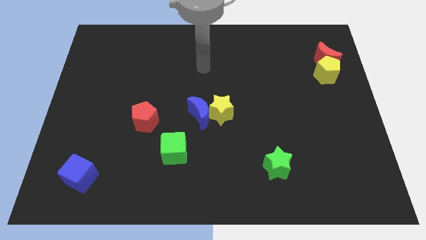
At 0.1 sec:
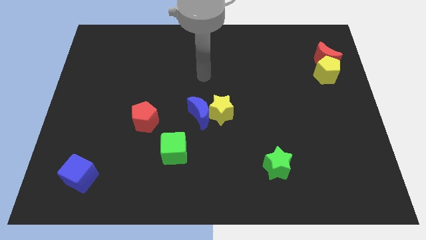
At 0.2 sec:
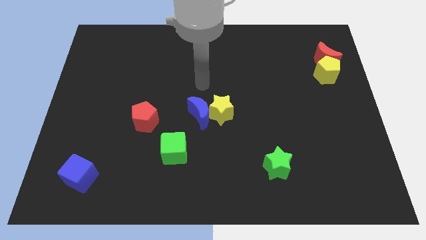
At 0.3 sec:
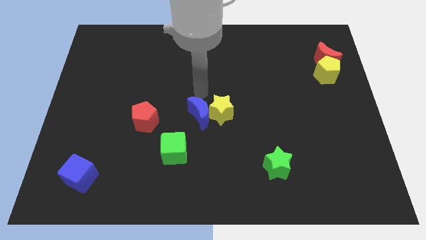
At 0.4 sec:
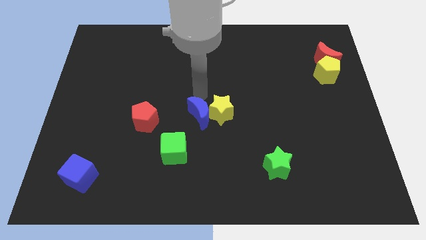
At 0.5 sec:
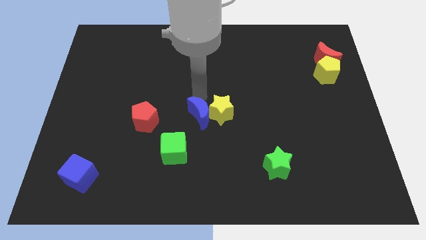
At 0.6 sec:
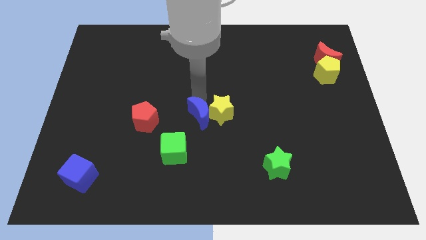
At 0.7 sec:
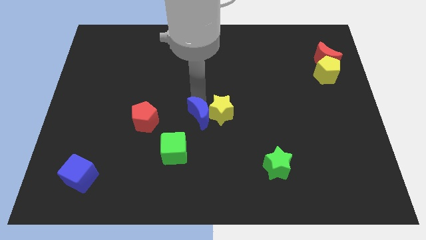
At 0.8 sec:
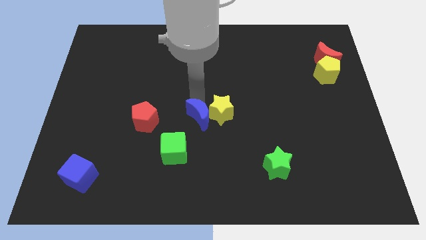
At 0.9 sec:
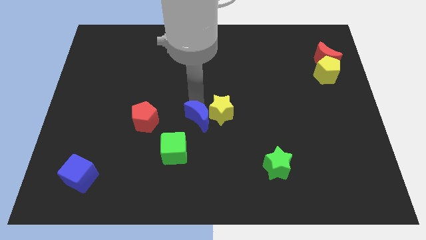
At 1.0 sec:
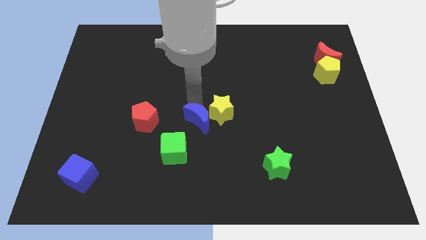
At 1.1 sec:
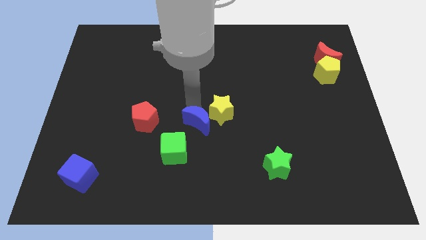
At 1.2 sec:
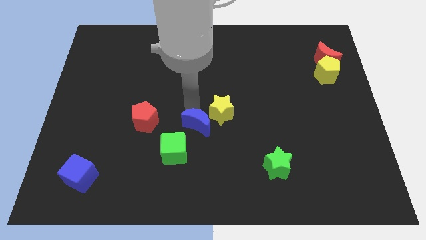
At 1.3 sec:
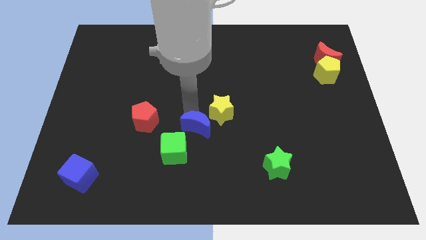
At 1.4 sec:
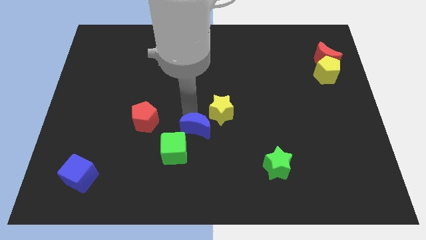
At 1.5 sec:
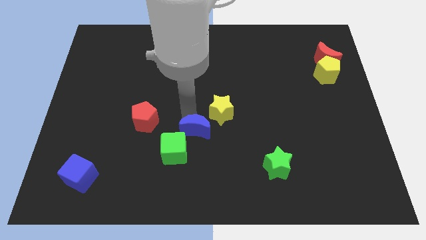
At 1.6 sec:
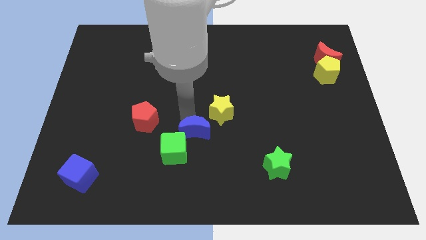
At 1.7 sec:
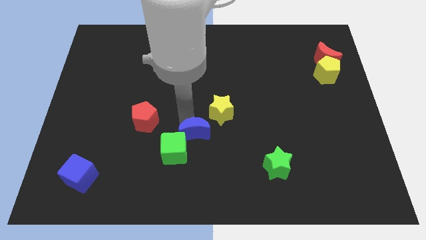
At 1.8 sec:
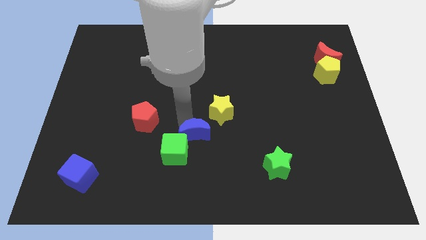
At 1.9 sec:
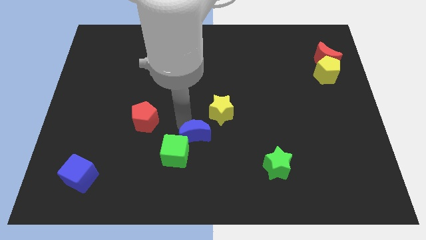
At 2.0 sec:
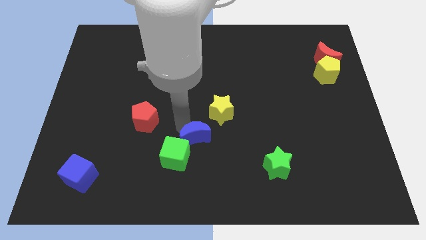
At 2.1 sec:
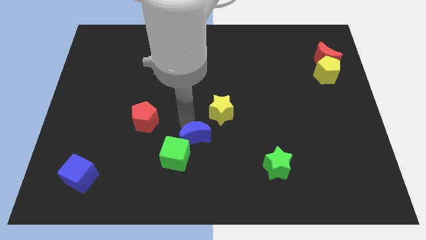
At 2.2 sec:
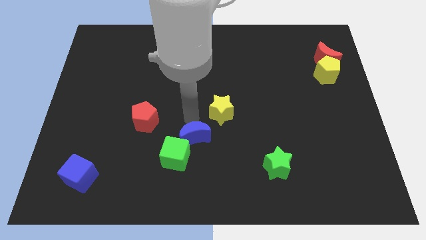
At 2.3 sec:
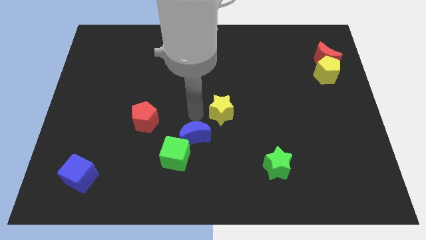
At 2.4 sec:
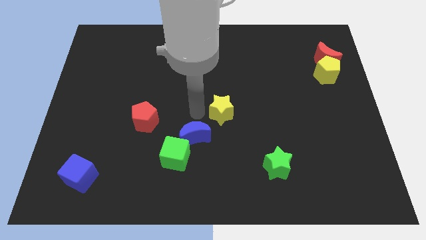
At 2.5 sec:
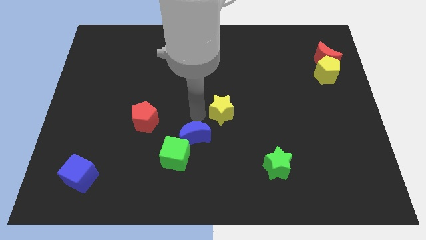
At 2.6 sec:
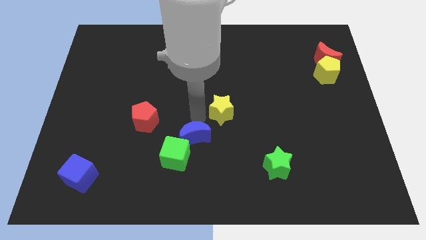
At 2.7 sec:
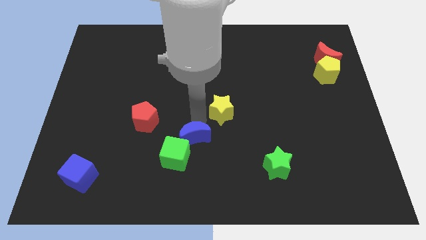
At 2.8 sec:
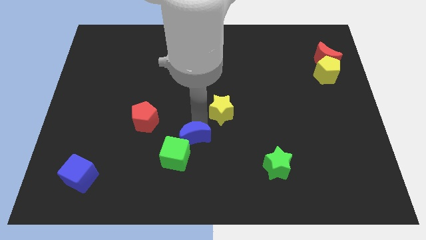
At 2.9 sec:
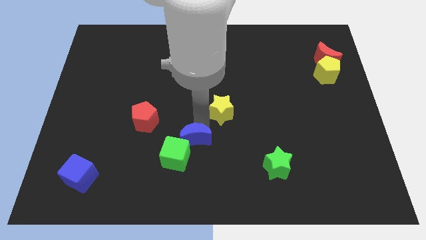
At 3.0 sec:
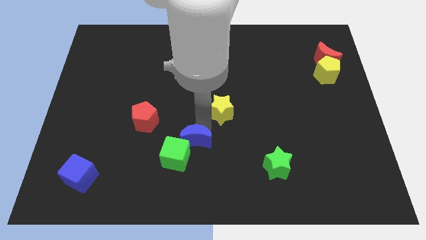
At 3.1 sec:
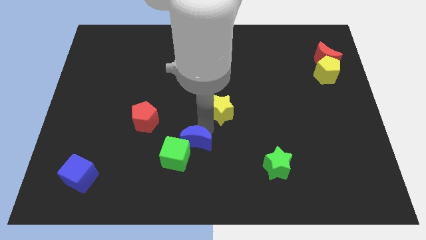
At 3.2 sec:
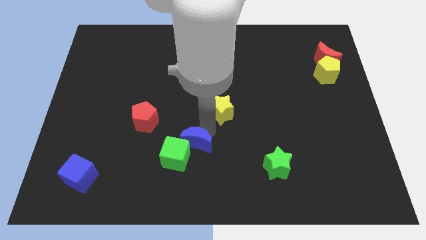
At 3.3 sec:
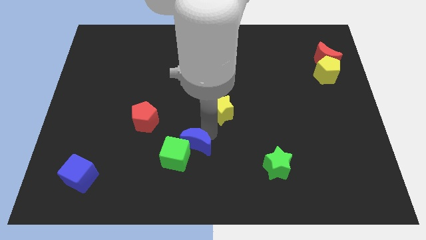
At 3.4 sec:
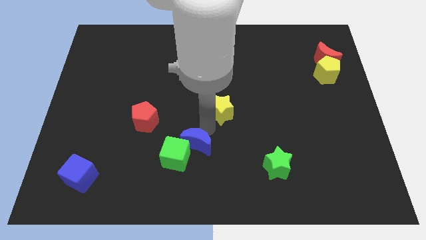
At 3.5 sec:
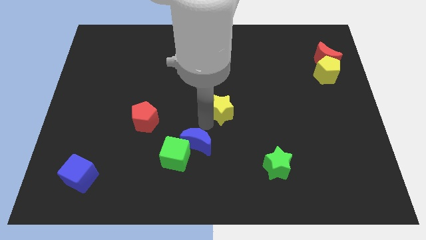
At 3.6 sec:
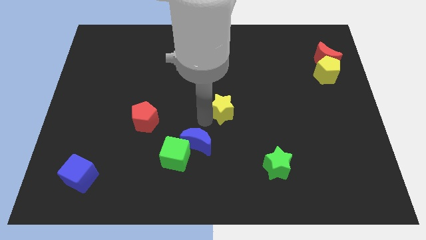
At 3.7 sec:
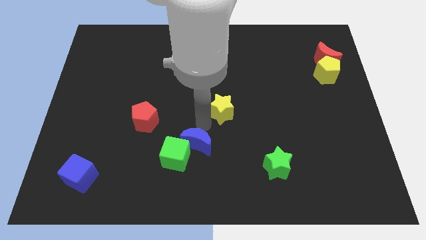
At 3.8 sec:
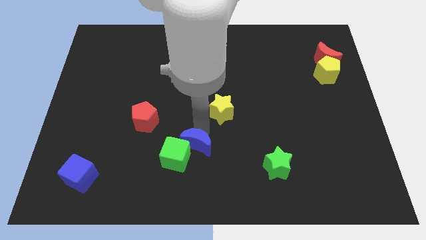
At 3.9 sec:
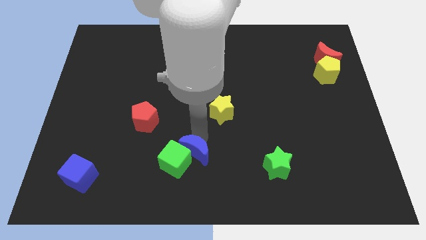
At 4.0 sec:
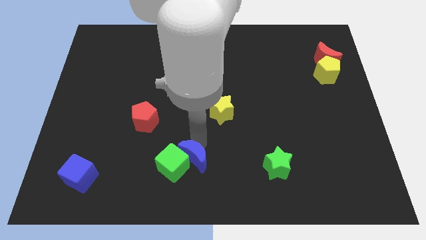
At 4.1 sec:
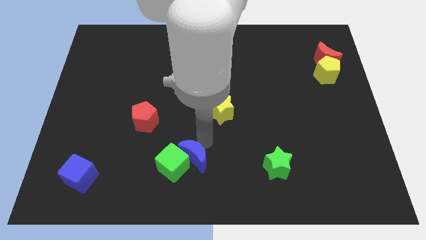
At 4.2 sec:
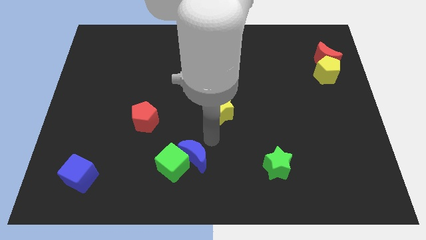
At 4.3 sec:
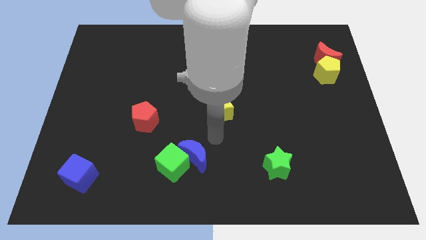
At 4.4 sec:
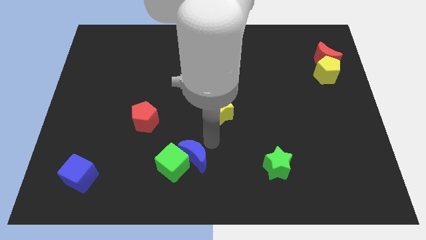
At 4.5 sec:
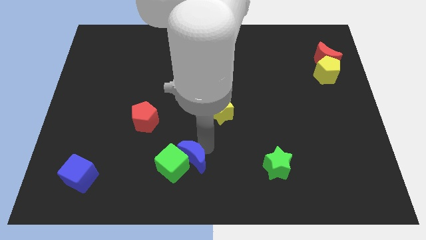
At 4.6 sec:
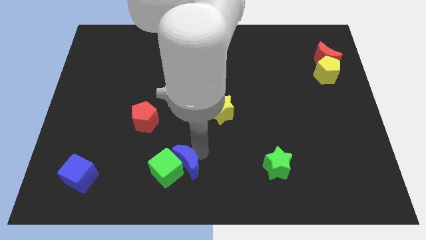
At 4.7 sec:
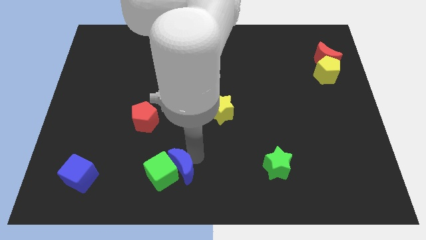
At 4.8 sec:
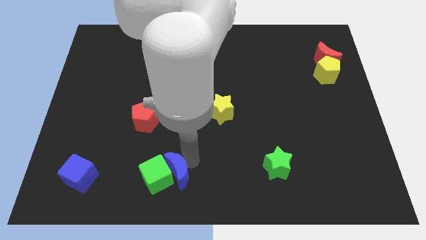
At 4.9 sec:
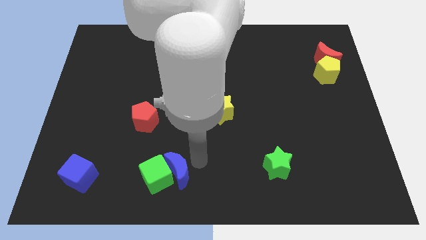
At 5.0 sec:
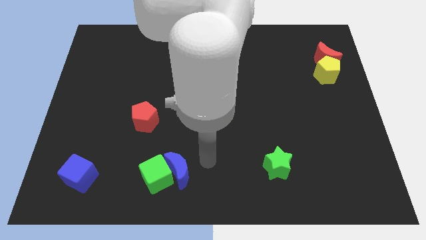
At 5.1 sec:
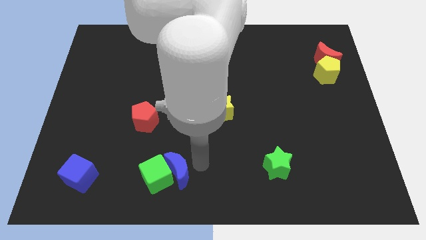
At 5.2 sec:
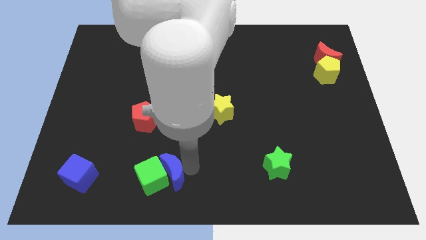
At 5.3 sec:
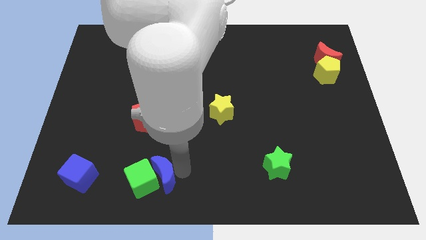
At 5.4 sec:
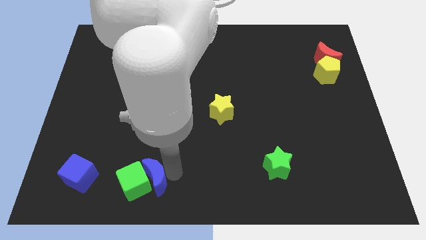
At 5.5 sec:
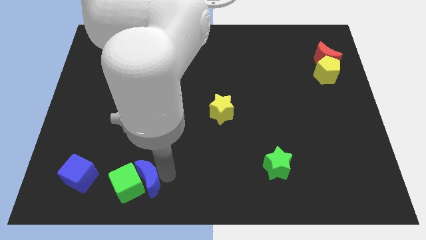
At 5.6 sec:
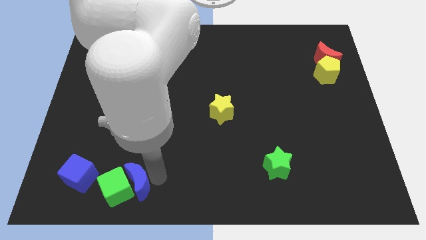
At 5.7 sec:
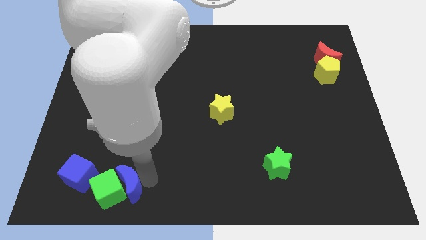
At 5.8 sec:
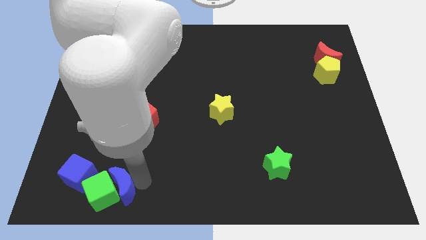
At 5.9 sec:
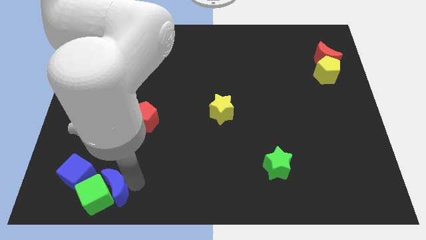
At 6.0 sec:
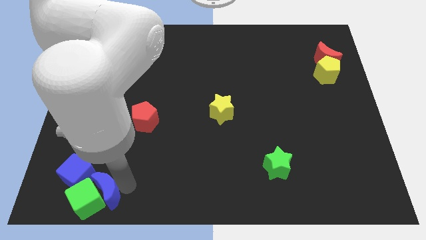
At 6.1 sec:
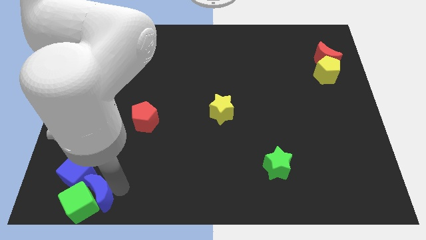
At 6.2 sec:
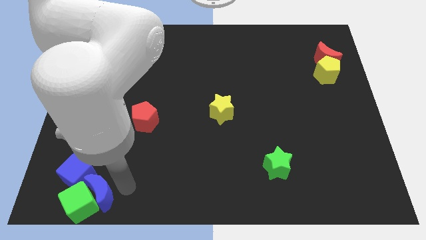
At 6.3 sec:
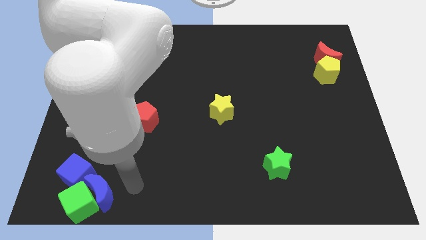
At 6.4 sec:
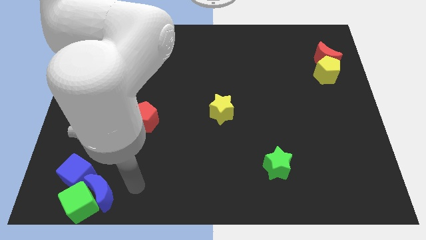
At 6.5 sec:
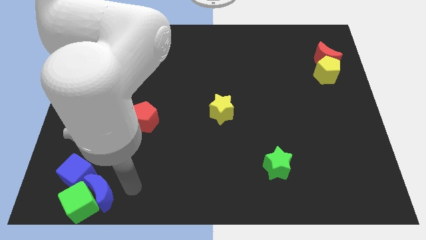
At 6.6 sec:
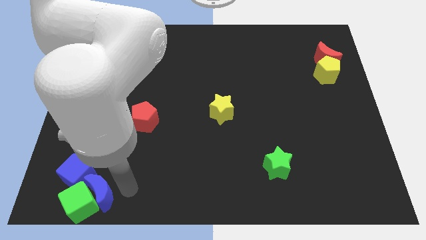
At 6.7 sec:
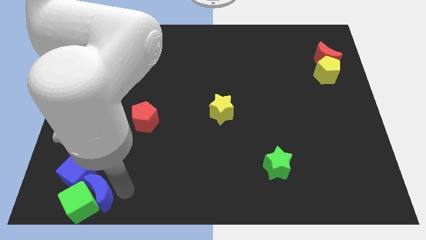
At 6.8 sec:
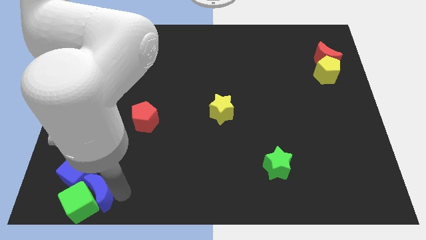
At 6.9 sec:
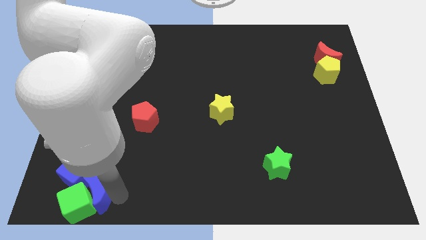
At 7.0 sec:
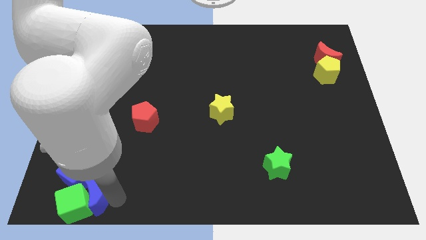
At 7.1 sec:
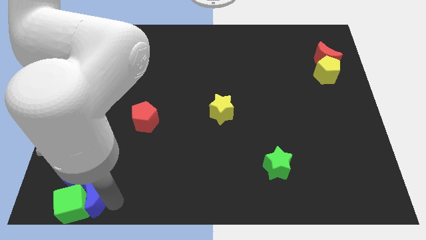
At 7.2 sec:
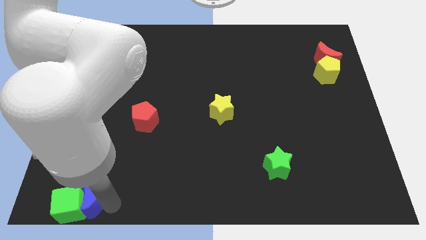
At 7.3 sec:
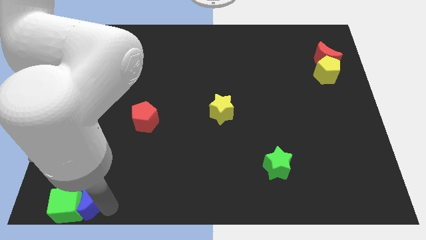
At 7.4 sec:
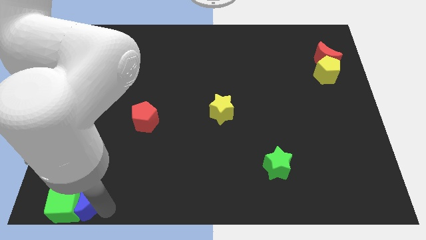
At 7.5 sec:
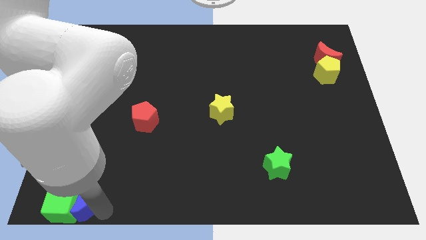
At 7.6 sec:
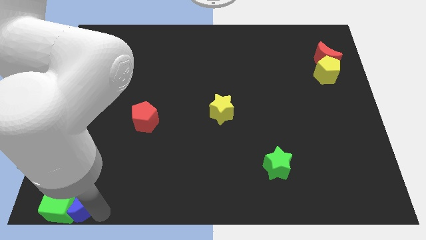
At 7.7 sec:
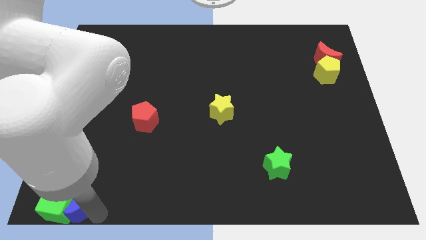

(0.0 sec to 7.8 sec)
put the blue moon to the bottom left
